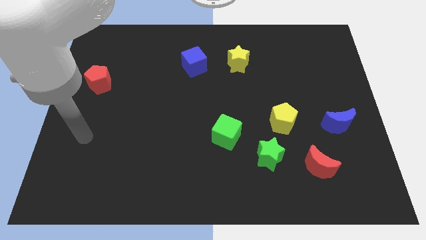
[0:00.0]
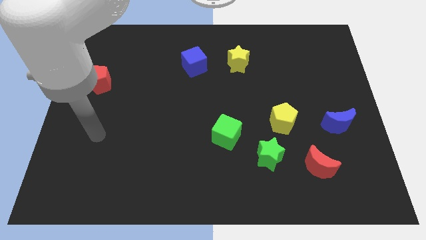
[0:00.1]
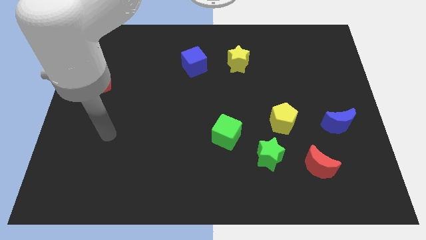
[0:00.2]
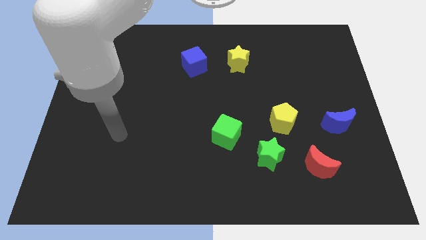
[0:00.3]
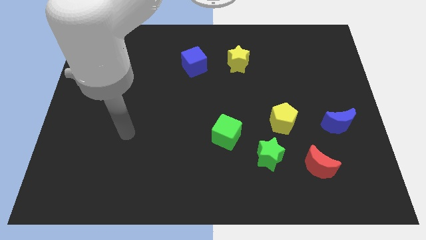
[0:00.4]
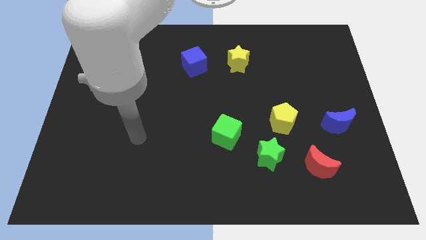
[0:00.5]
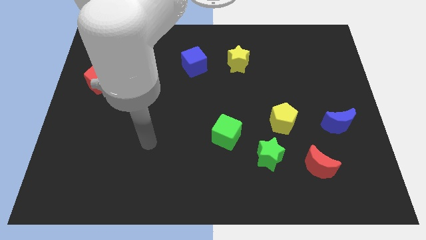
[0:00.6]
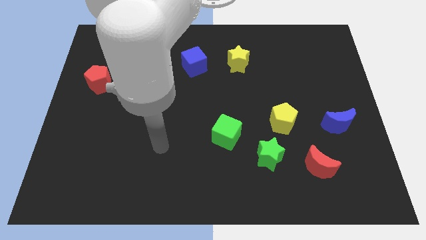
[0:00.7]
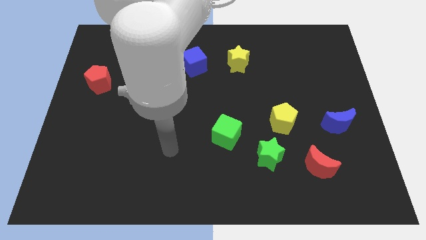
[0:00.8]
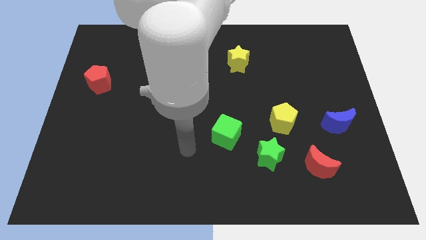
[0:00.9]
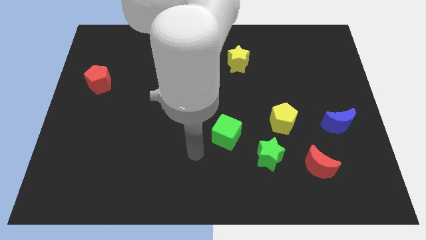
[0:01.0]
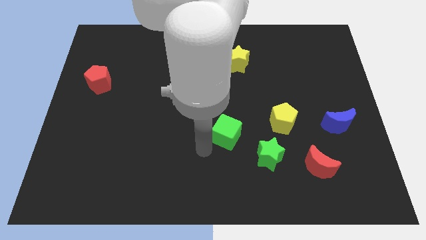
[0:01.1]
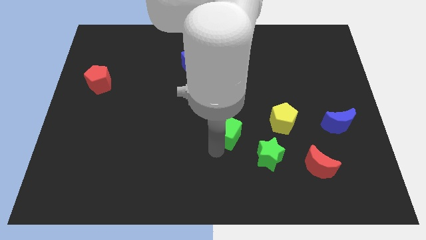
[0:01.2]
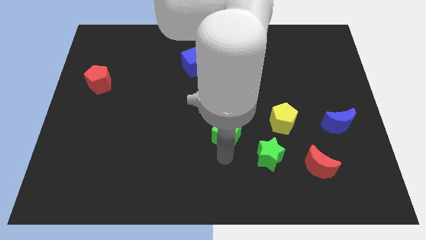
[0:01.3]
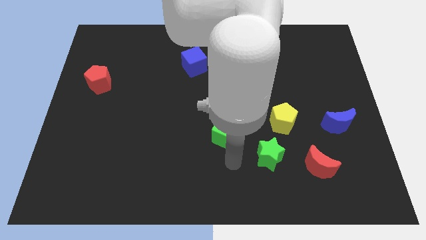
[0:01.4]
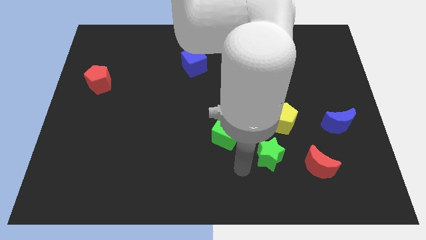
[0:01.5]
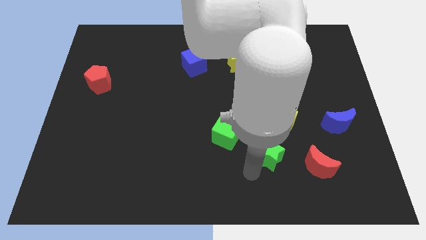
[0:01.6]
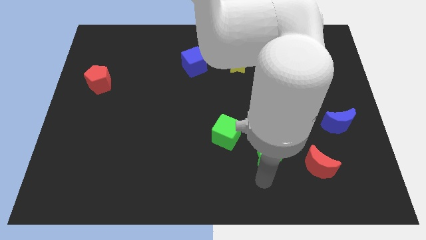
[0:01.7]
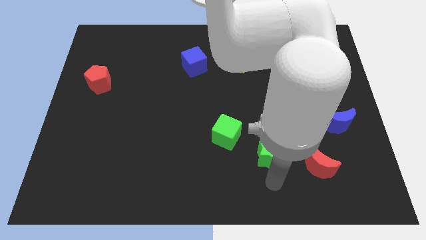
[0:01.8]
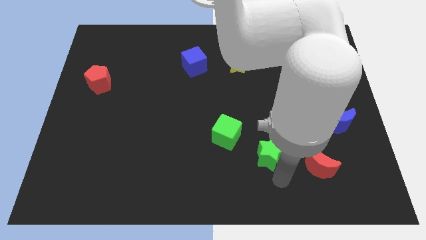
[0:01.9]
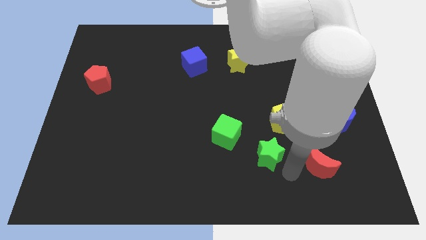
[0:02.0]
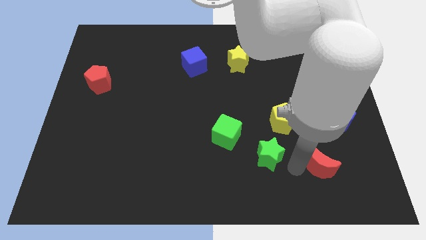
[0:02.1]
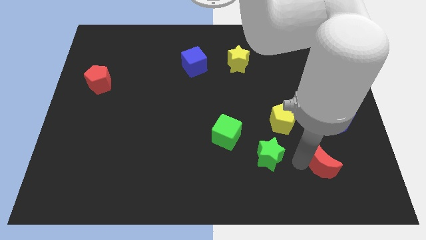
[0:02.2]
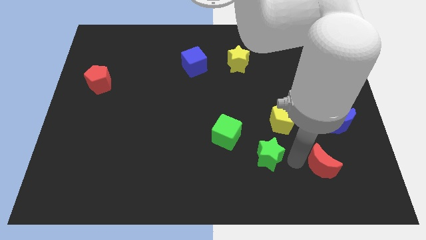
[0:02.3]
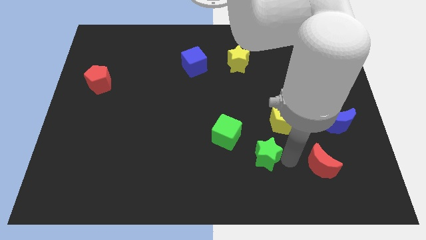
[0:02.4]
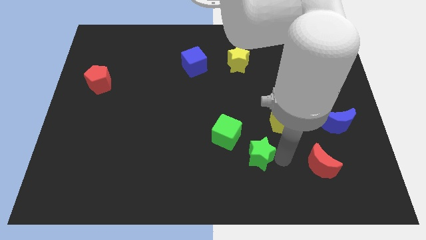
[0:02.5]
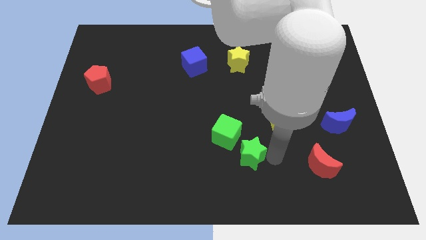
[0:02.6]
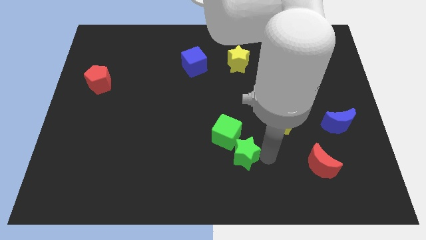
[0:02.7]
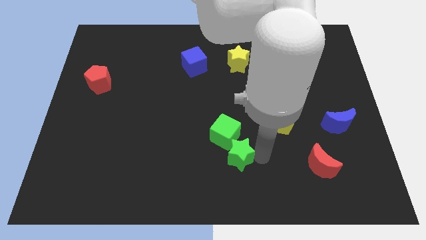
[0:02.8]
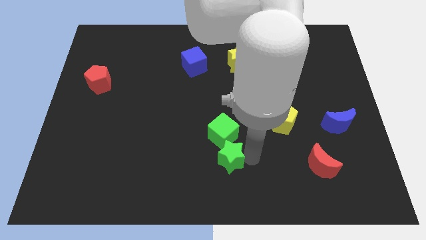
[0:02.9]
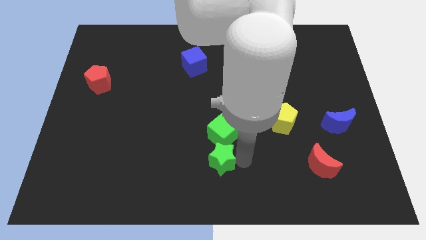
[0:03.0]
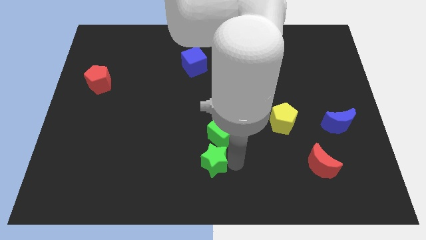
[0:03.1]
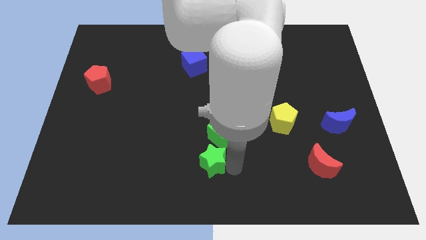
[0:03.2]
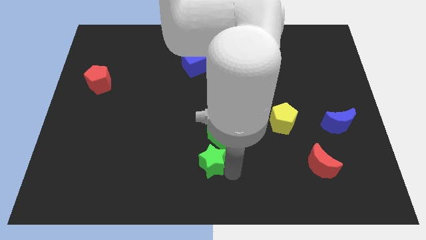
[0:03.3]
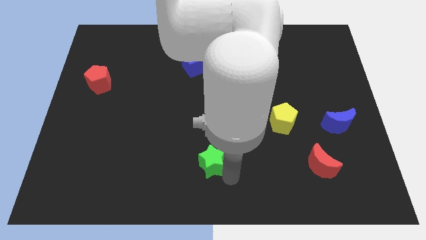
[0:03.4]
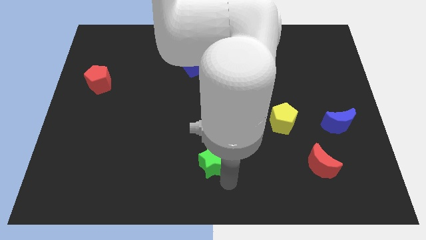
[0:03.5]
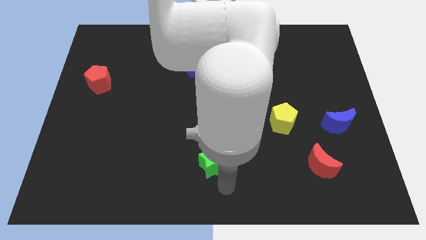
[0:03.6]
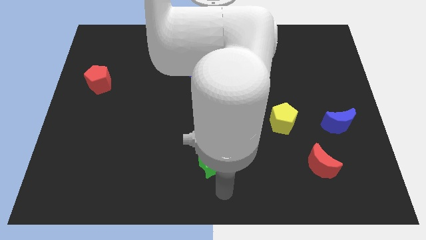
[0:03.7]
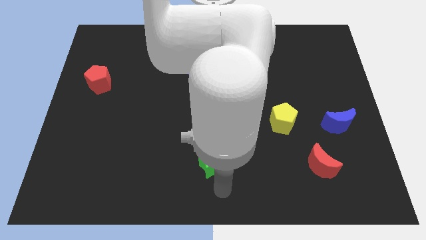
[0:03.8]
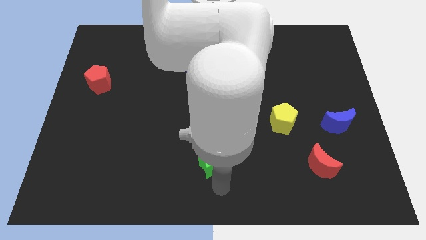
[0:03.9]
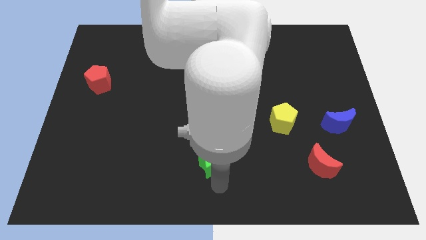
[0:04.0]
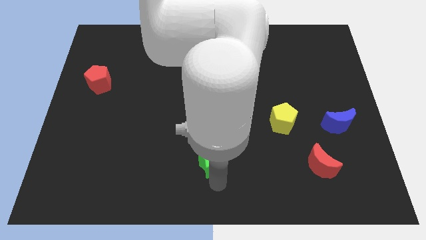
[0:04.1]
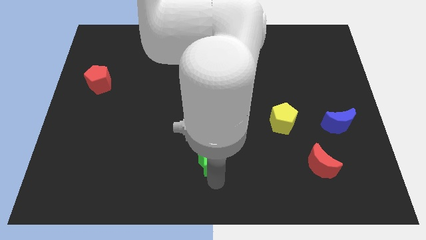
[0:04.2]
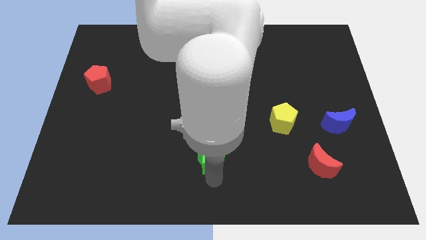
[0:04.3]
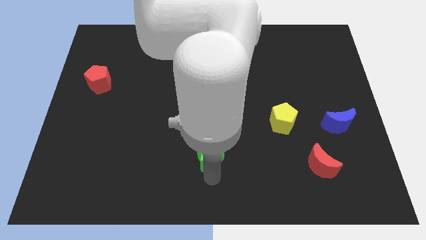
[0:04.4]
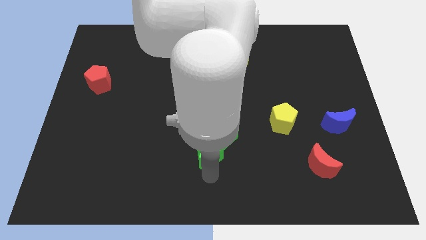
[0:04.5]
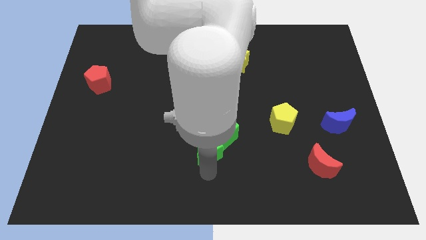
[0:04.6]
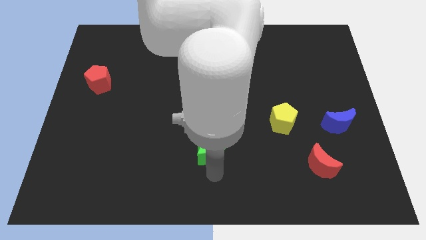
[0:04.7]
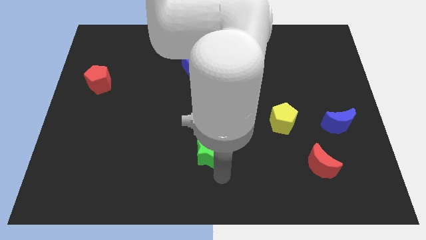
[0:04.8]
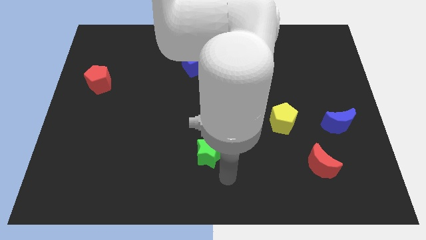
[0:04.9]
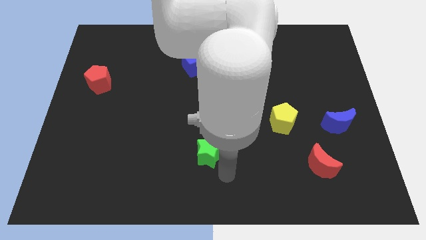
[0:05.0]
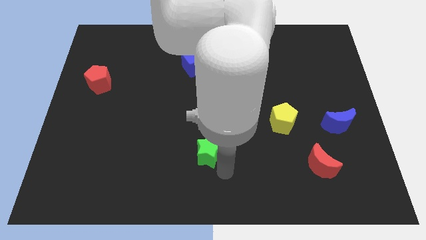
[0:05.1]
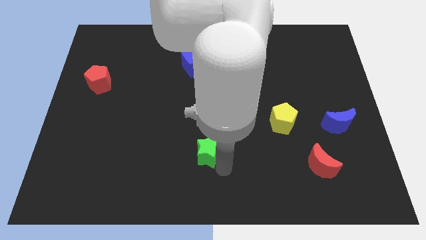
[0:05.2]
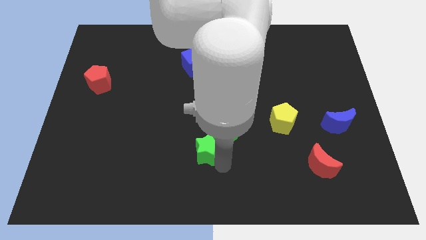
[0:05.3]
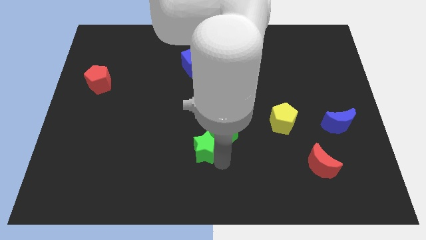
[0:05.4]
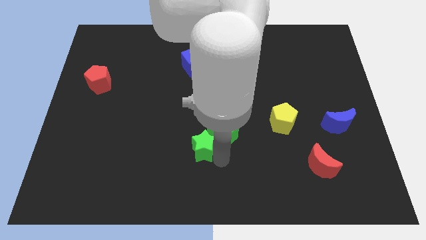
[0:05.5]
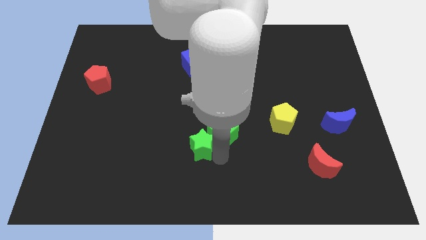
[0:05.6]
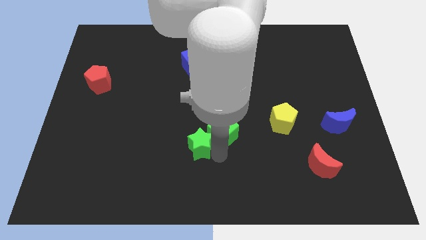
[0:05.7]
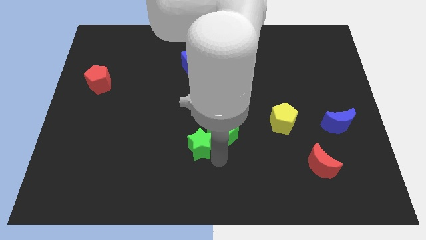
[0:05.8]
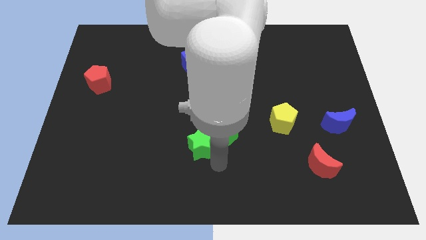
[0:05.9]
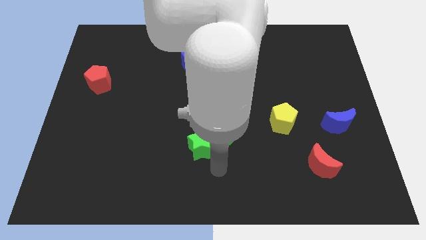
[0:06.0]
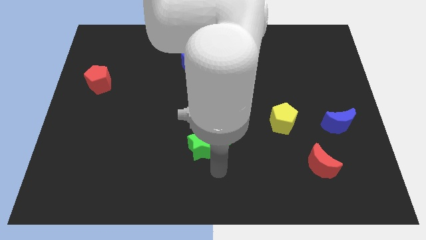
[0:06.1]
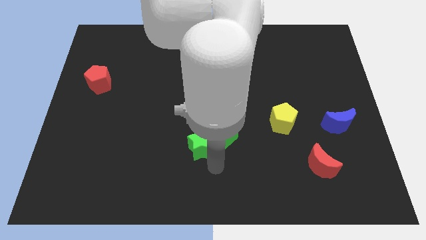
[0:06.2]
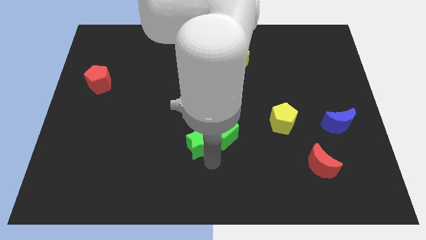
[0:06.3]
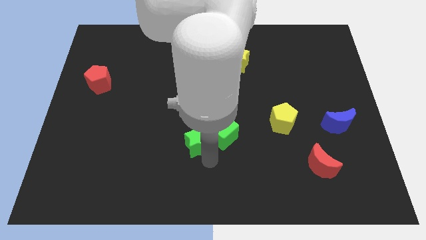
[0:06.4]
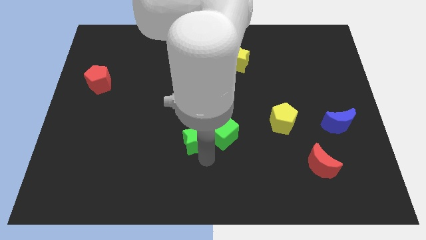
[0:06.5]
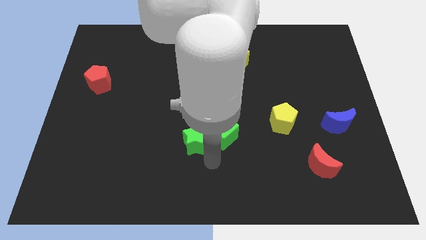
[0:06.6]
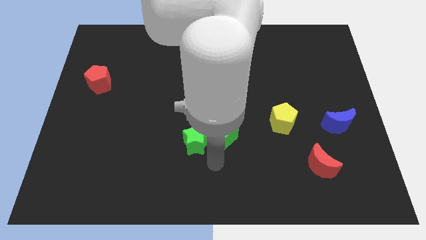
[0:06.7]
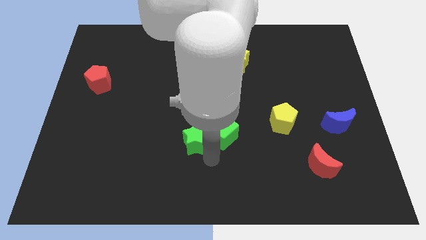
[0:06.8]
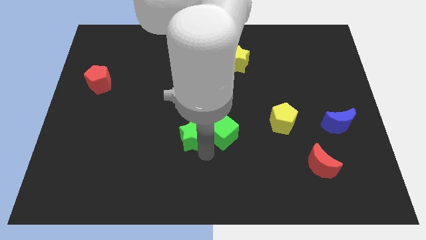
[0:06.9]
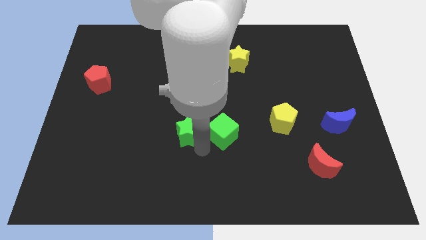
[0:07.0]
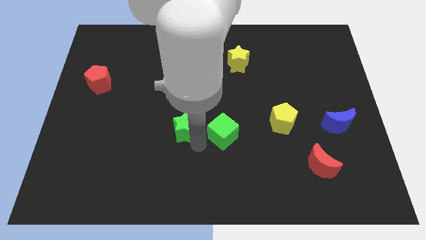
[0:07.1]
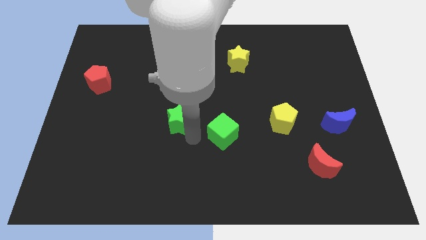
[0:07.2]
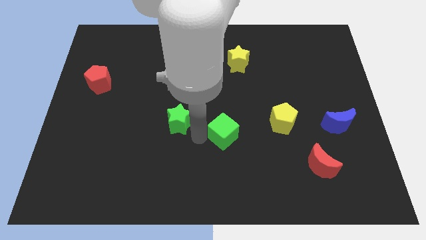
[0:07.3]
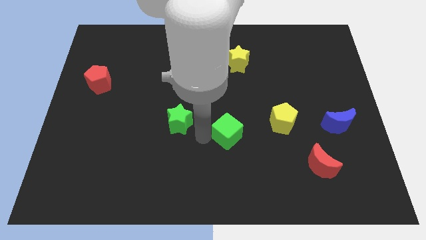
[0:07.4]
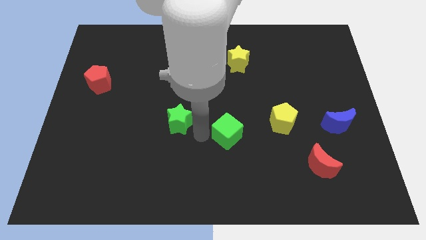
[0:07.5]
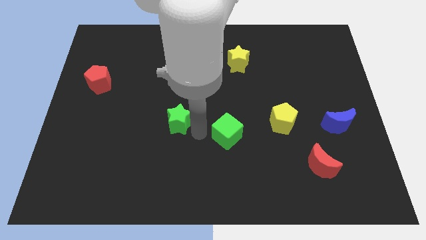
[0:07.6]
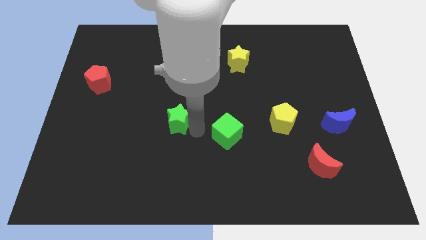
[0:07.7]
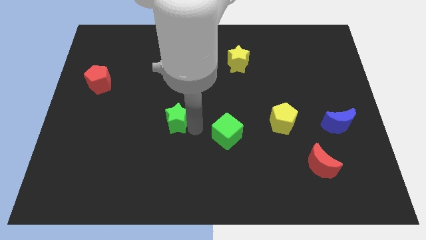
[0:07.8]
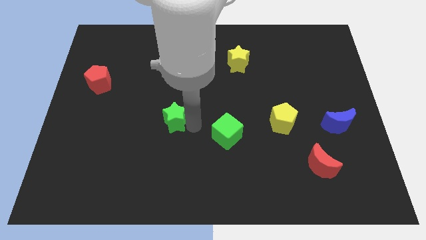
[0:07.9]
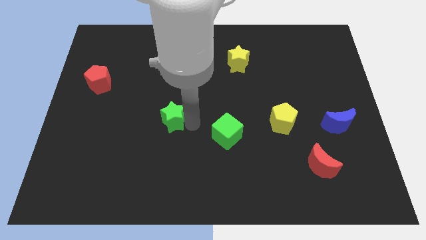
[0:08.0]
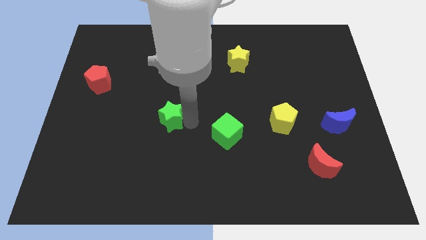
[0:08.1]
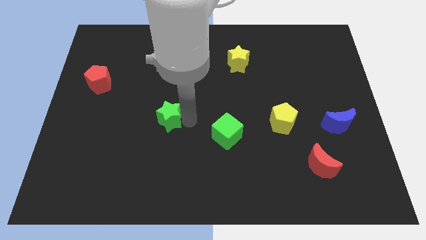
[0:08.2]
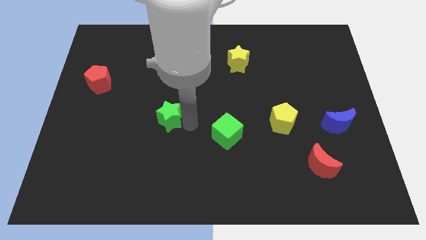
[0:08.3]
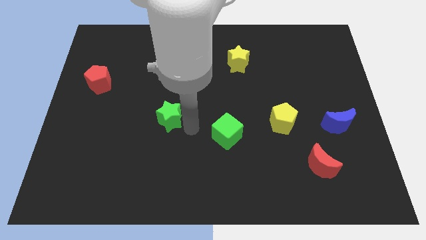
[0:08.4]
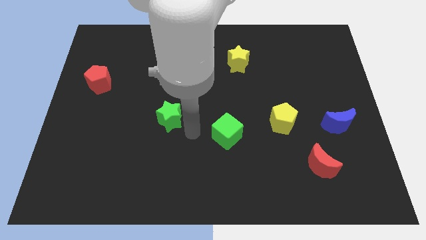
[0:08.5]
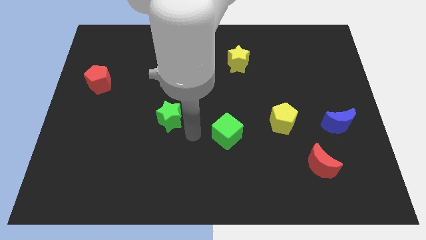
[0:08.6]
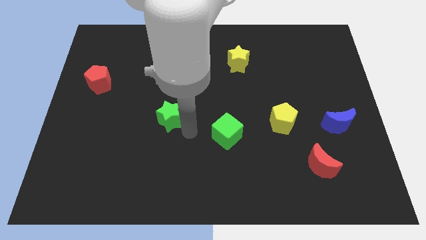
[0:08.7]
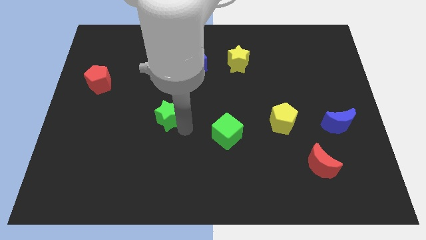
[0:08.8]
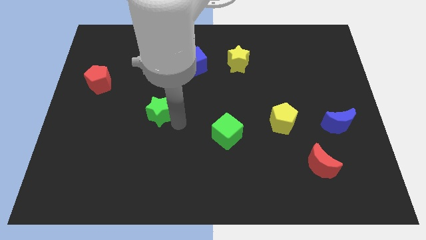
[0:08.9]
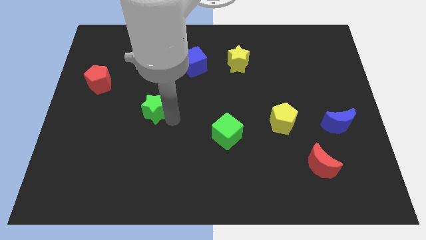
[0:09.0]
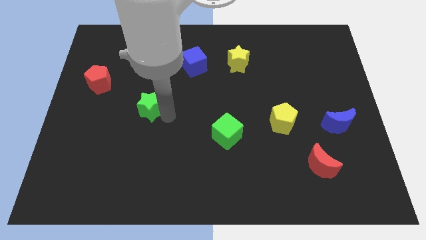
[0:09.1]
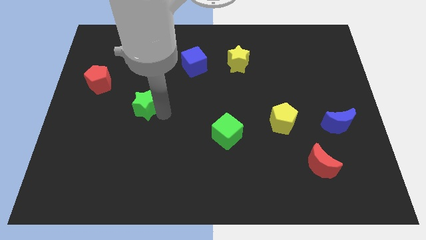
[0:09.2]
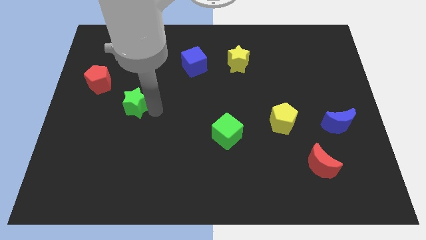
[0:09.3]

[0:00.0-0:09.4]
move the green star diagonally down and to the right of the red pentagon
